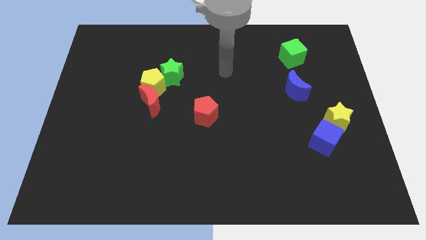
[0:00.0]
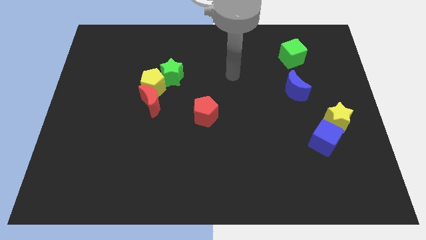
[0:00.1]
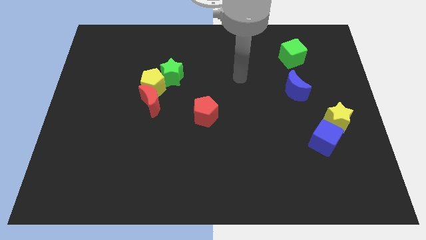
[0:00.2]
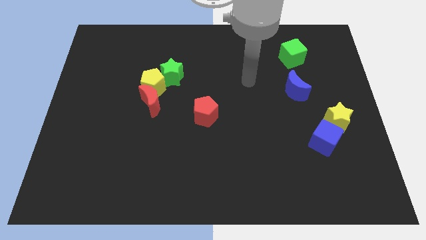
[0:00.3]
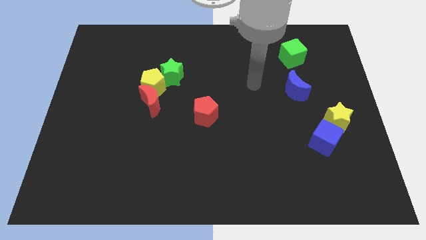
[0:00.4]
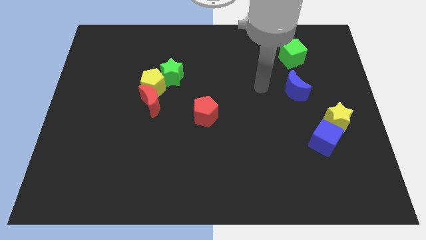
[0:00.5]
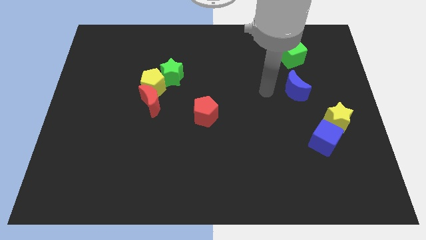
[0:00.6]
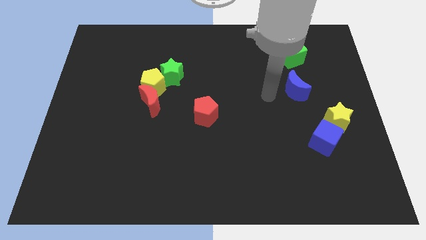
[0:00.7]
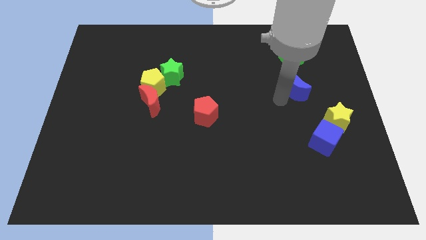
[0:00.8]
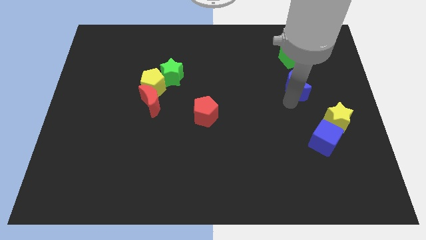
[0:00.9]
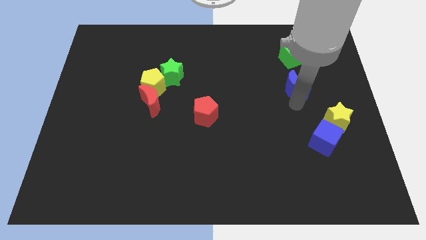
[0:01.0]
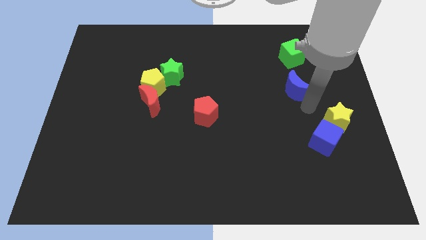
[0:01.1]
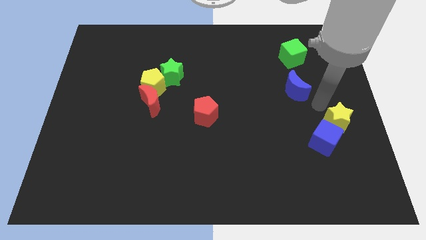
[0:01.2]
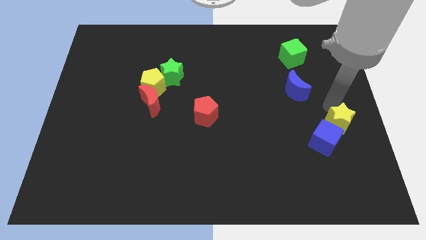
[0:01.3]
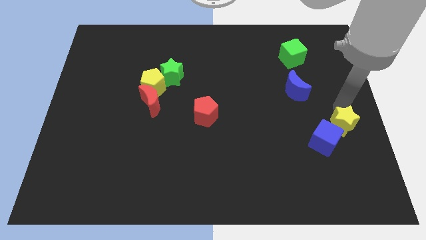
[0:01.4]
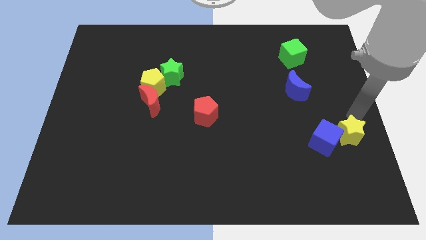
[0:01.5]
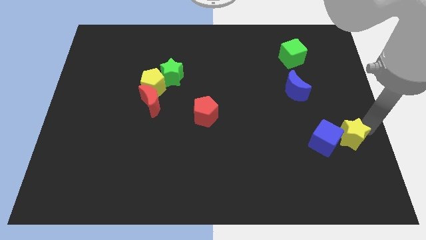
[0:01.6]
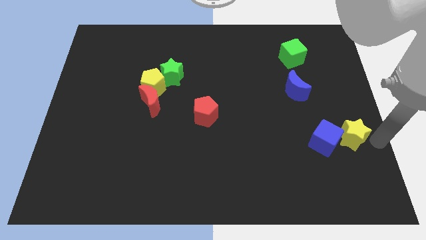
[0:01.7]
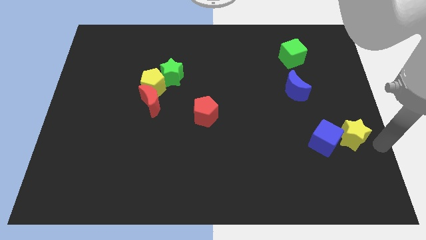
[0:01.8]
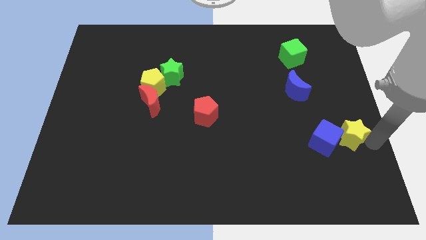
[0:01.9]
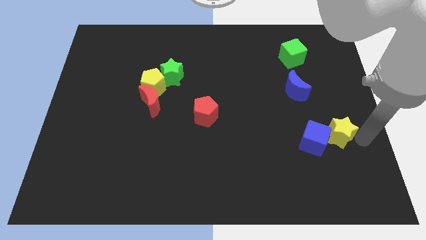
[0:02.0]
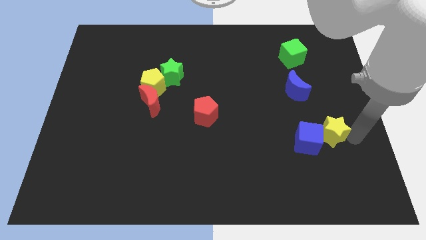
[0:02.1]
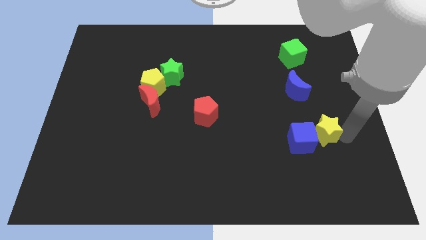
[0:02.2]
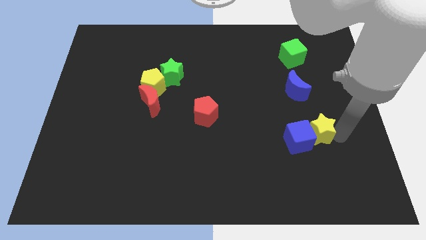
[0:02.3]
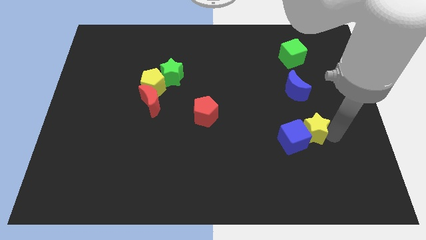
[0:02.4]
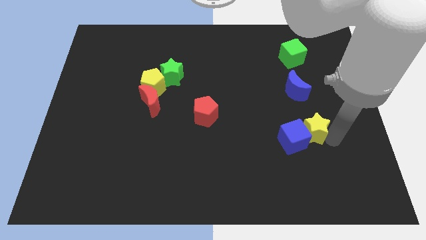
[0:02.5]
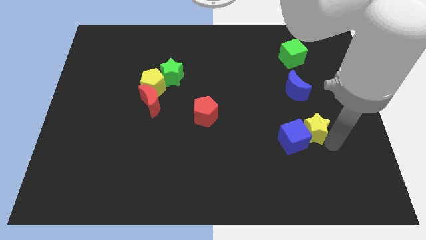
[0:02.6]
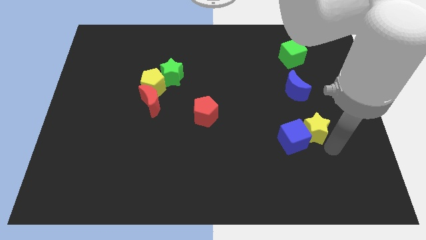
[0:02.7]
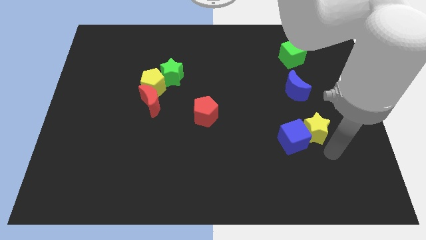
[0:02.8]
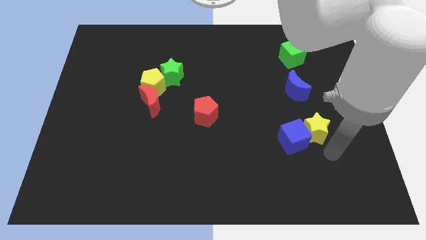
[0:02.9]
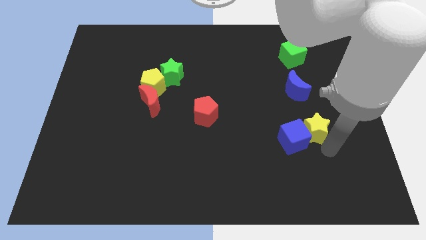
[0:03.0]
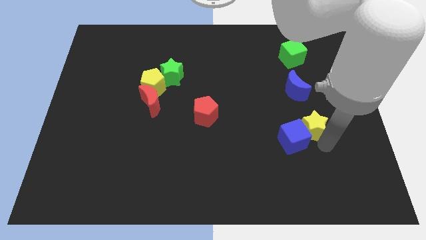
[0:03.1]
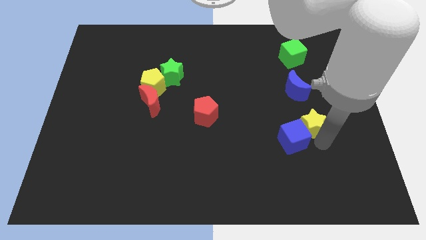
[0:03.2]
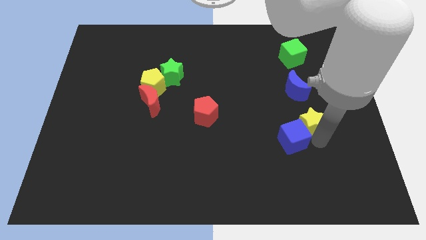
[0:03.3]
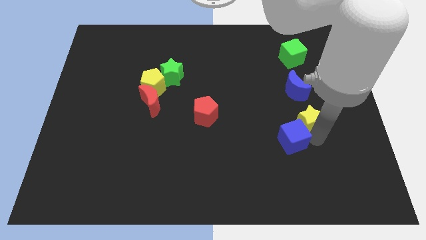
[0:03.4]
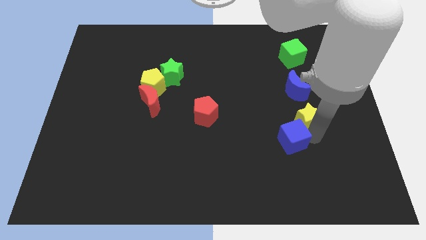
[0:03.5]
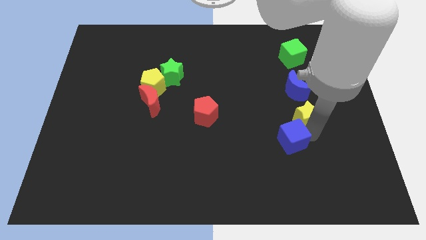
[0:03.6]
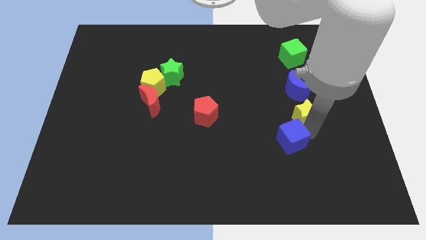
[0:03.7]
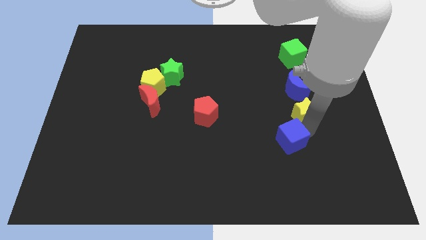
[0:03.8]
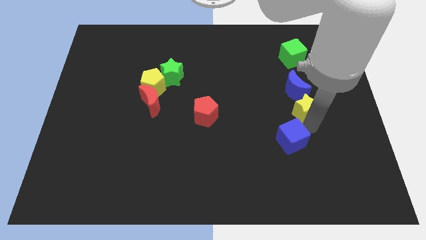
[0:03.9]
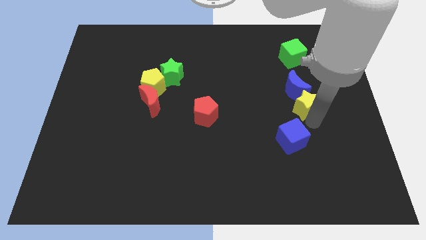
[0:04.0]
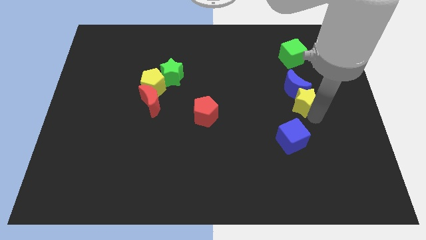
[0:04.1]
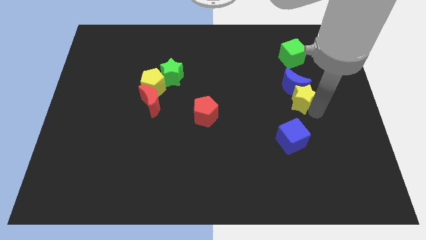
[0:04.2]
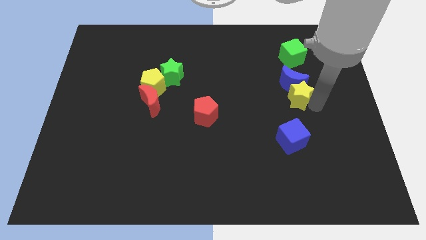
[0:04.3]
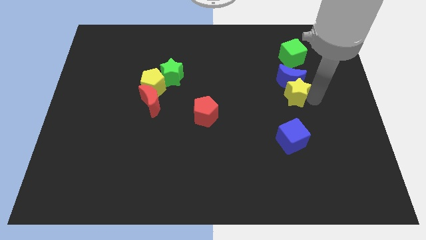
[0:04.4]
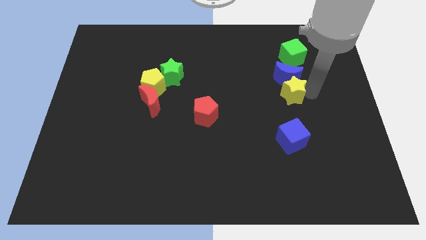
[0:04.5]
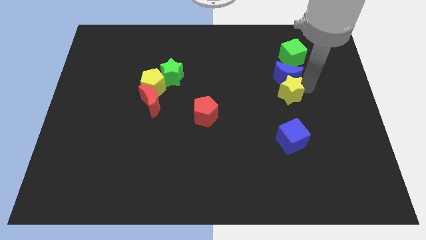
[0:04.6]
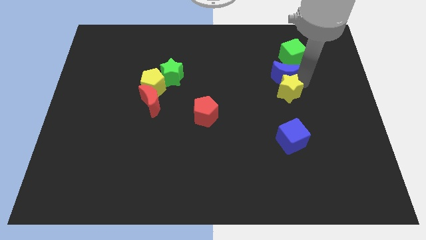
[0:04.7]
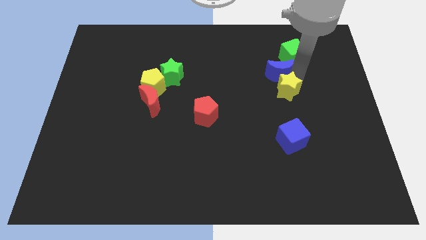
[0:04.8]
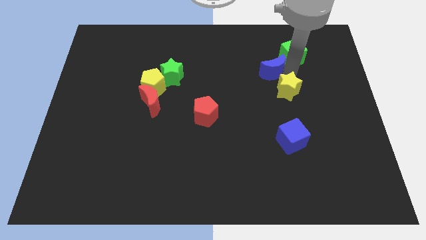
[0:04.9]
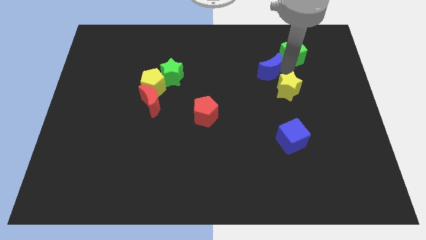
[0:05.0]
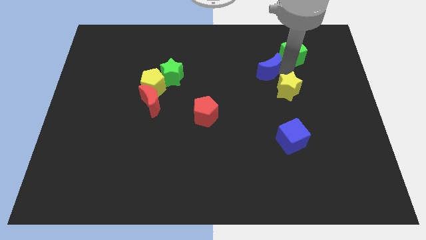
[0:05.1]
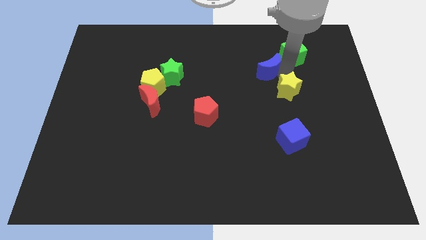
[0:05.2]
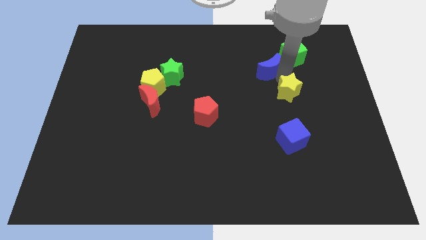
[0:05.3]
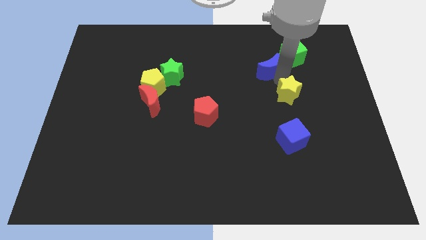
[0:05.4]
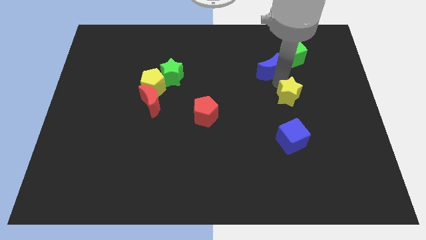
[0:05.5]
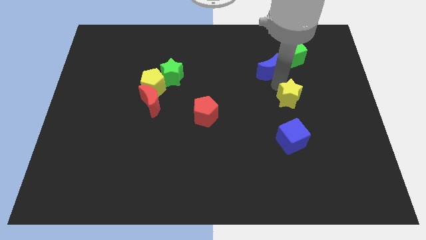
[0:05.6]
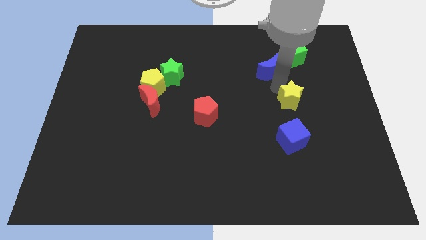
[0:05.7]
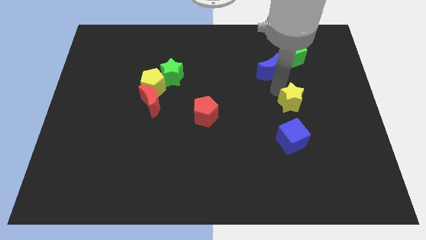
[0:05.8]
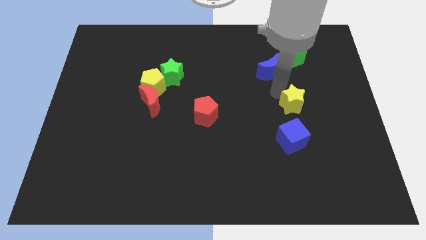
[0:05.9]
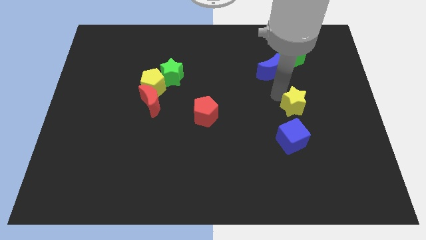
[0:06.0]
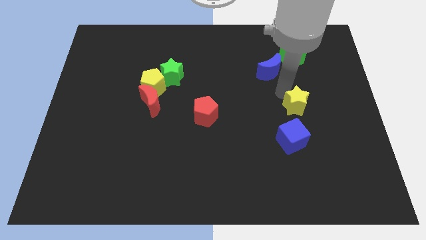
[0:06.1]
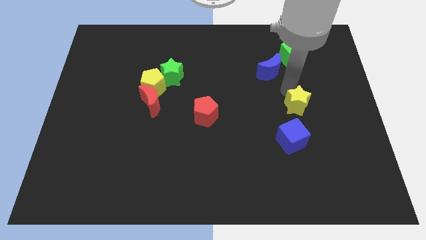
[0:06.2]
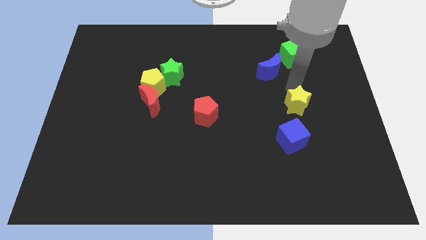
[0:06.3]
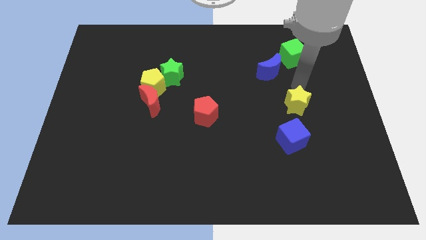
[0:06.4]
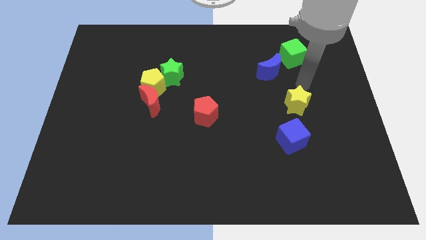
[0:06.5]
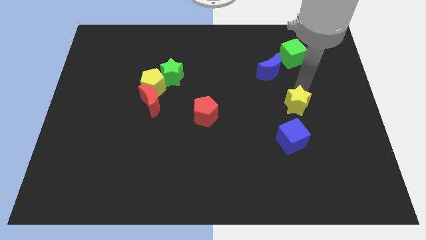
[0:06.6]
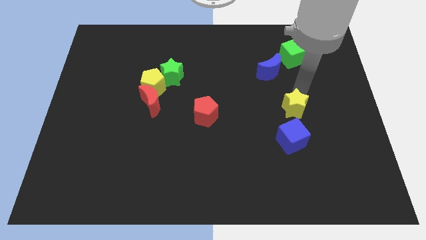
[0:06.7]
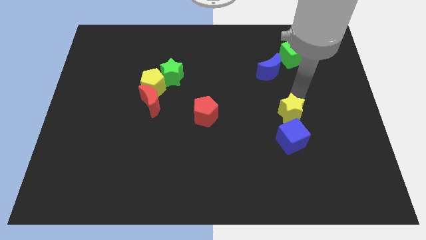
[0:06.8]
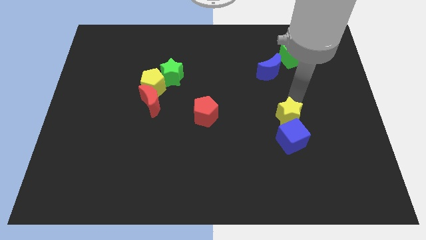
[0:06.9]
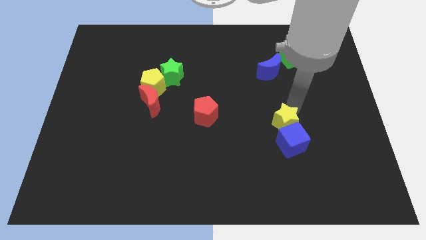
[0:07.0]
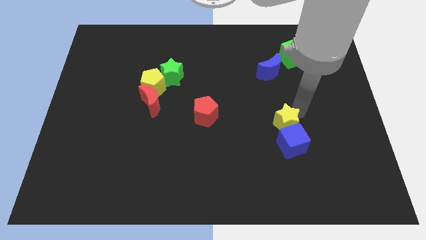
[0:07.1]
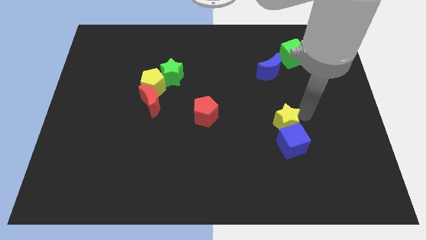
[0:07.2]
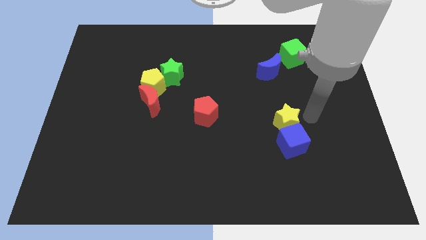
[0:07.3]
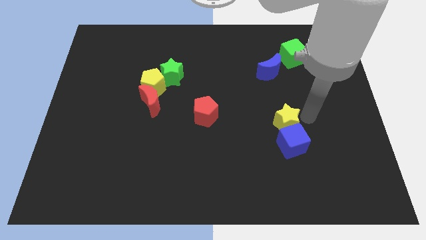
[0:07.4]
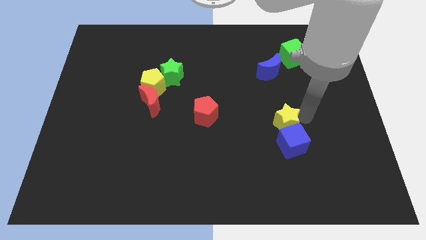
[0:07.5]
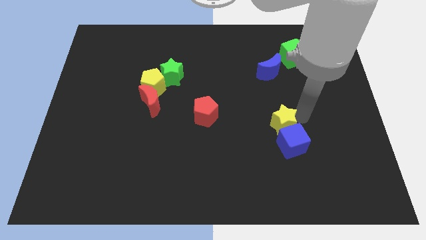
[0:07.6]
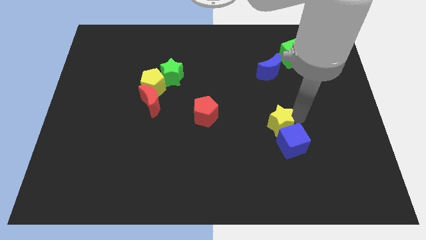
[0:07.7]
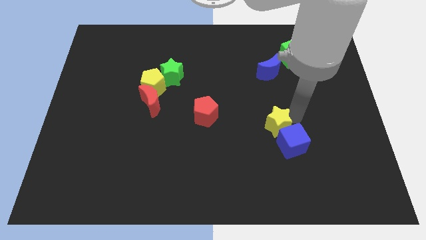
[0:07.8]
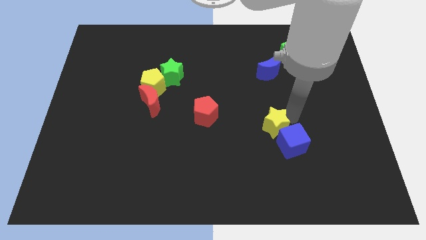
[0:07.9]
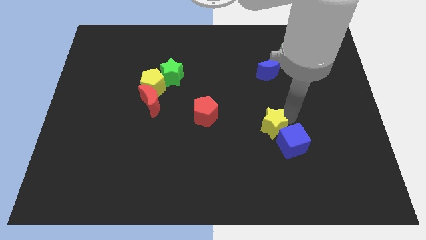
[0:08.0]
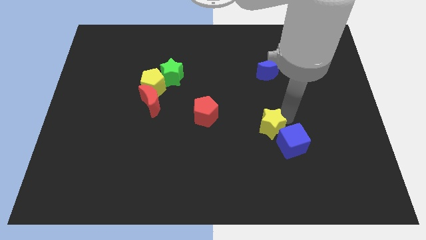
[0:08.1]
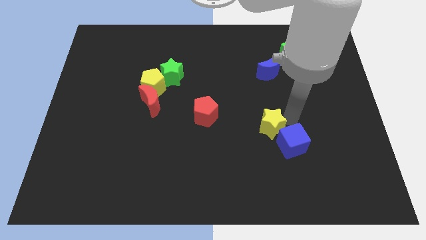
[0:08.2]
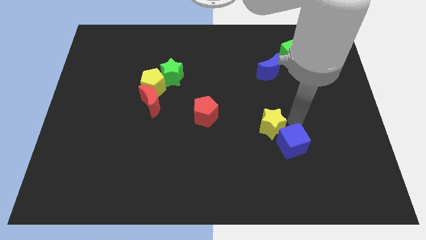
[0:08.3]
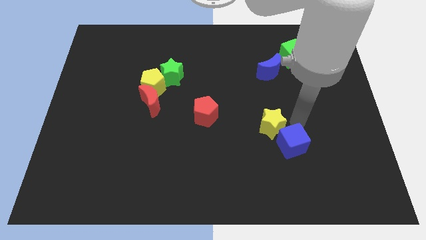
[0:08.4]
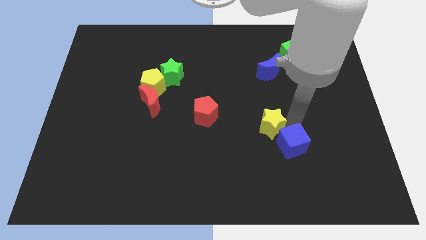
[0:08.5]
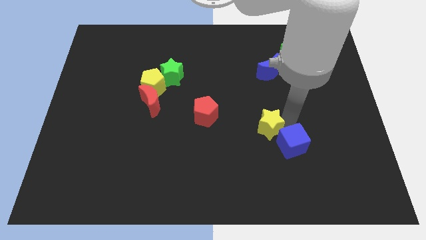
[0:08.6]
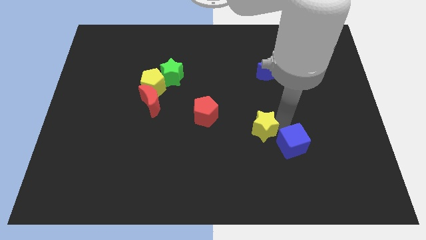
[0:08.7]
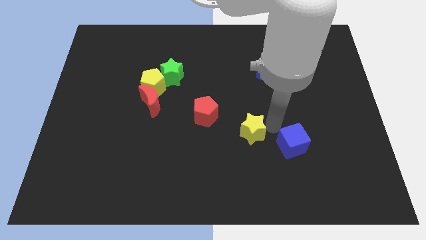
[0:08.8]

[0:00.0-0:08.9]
push the yellow star diagonally down and to the right of the red pentagon
